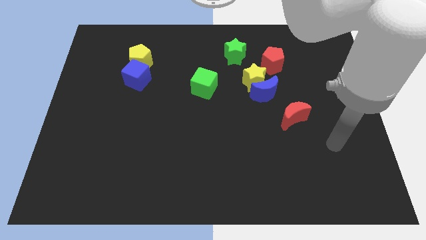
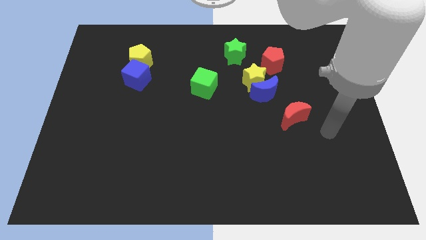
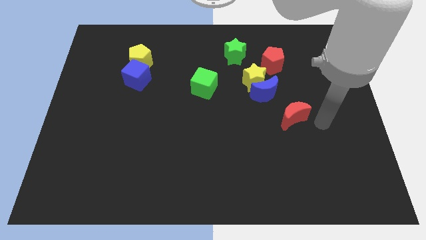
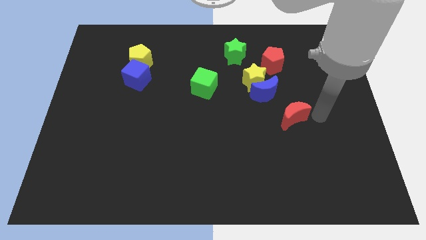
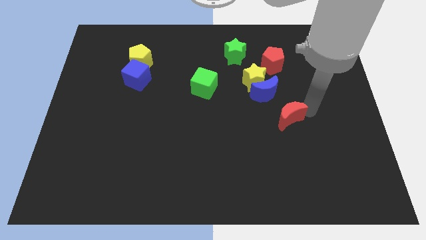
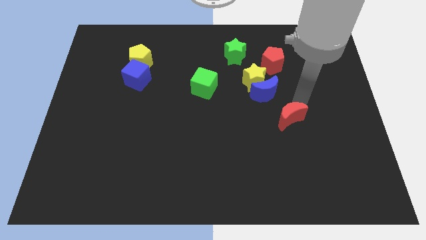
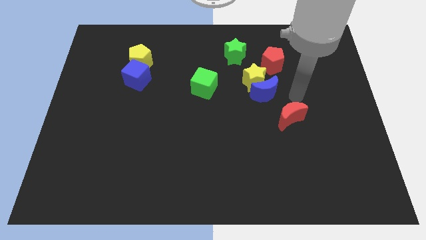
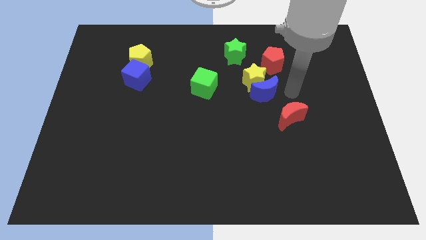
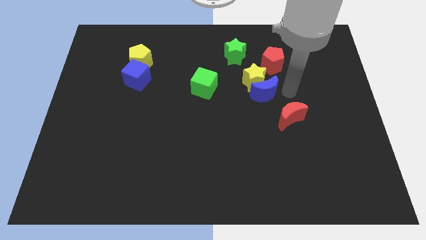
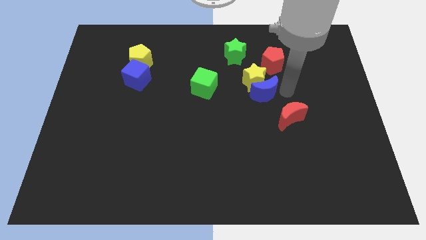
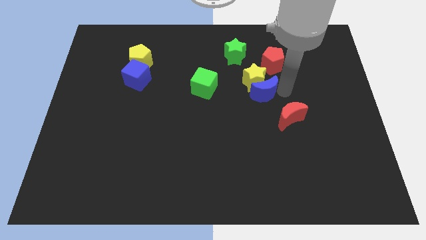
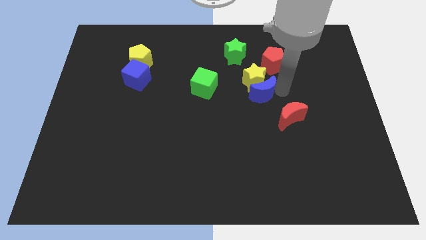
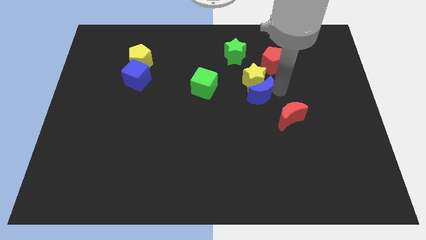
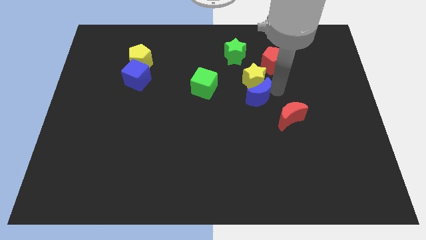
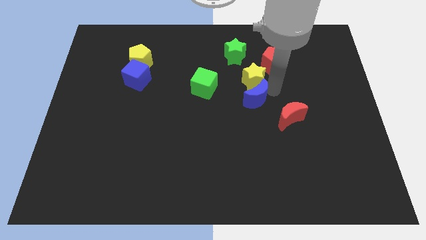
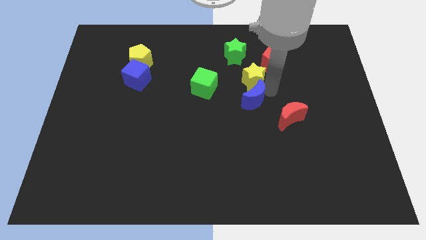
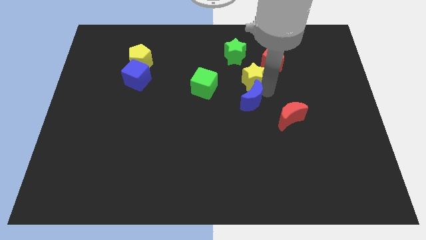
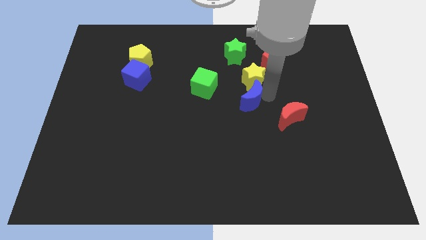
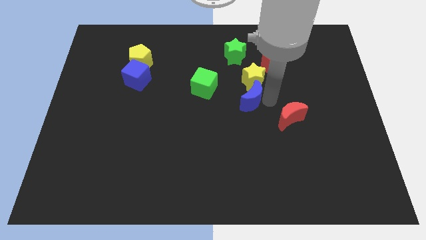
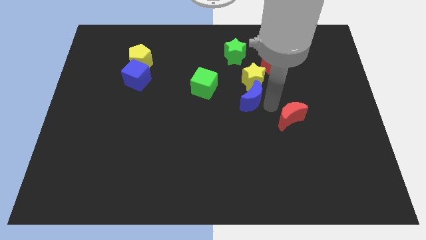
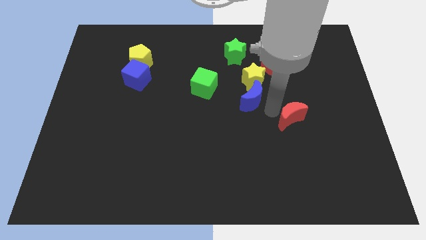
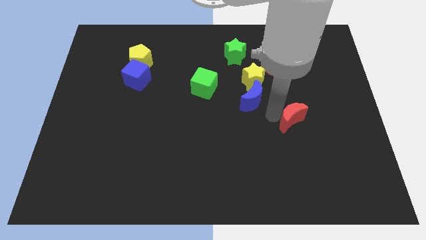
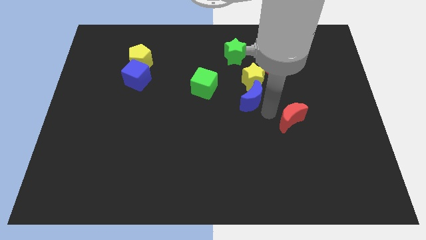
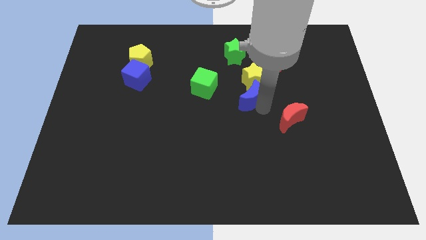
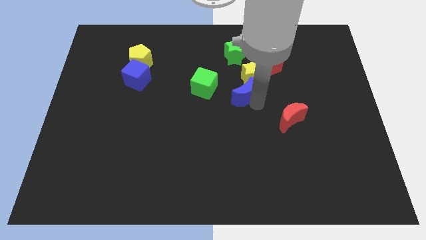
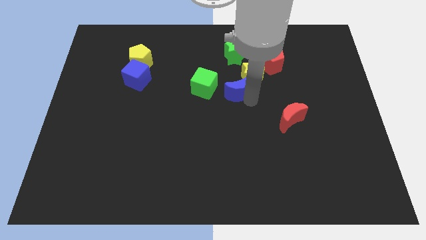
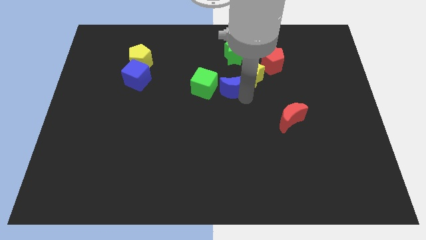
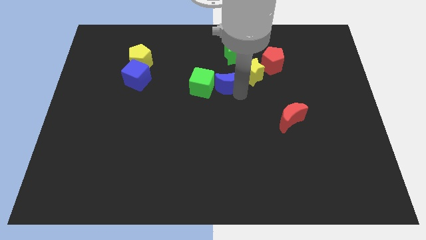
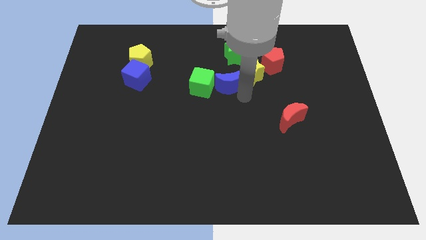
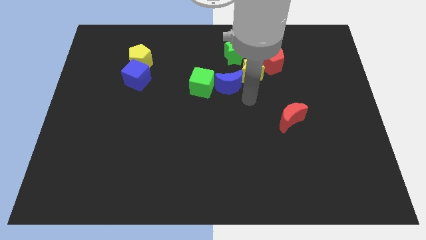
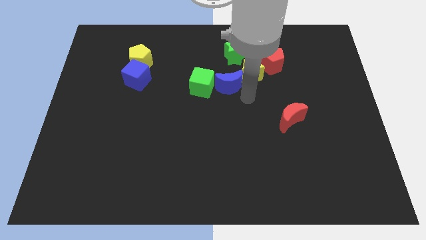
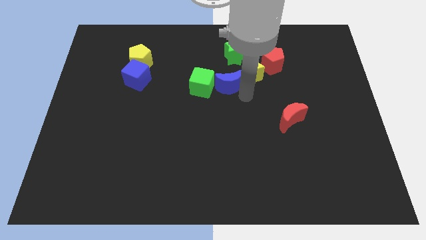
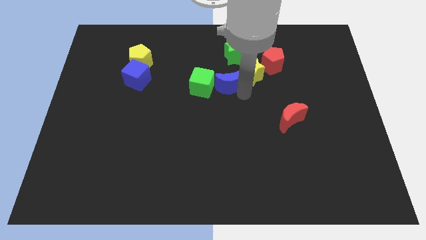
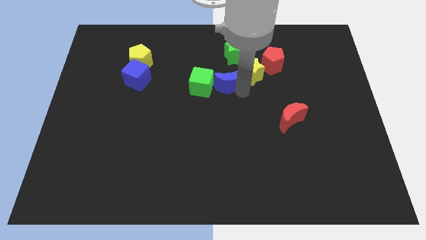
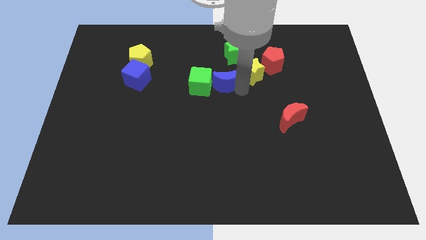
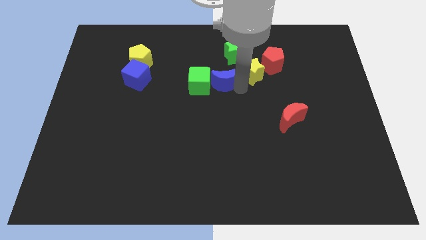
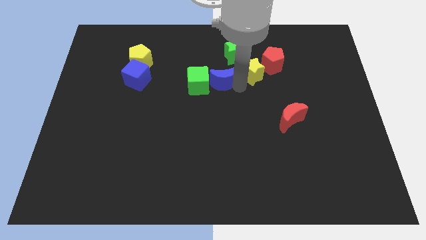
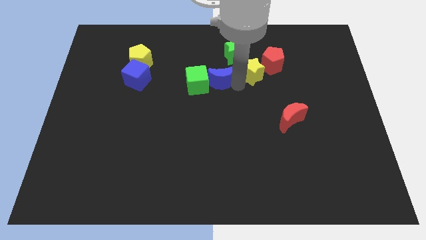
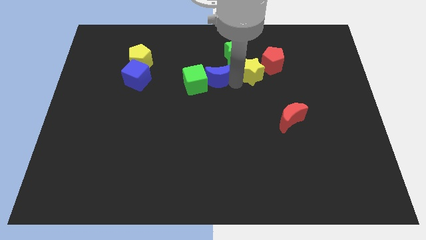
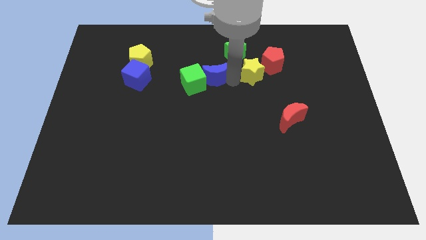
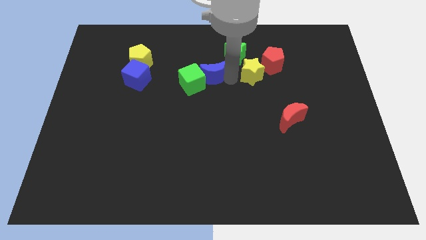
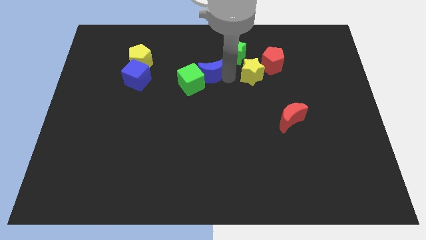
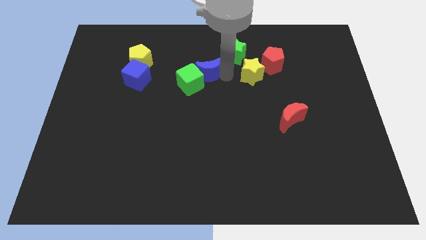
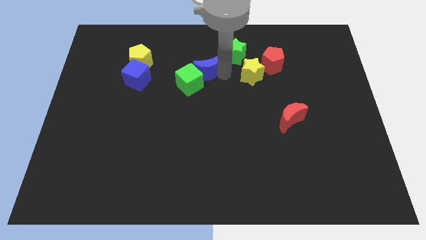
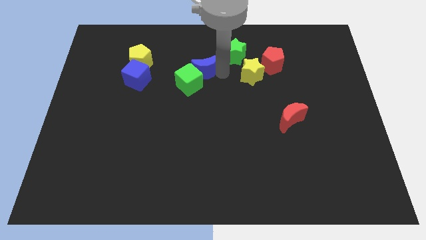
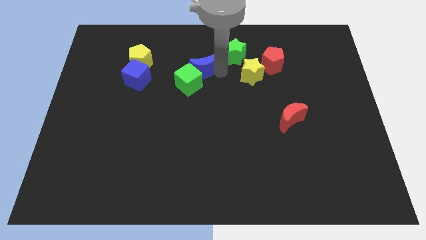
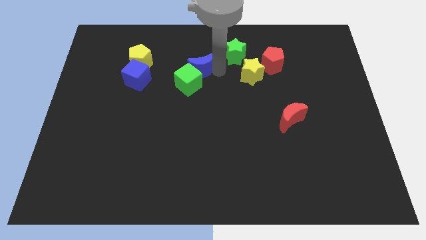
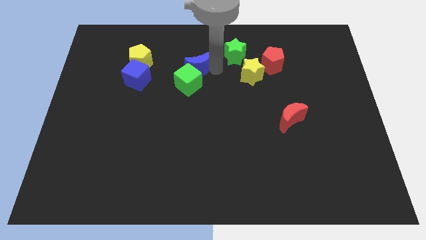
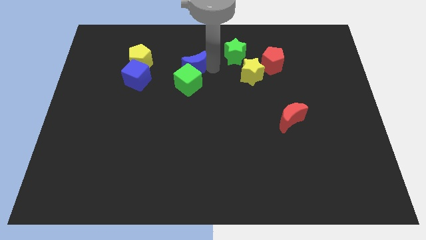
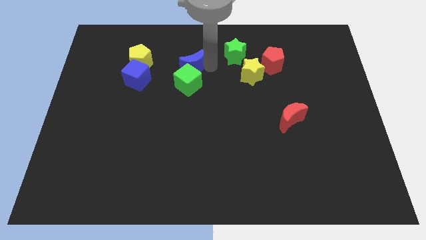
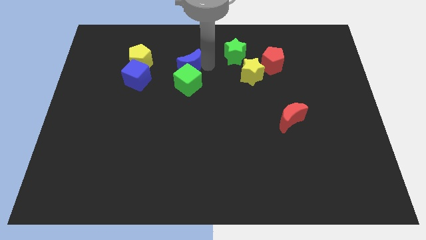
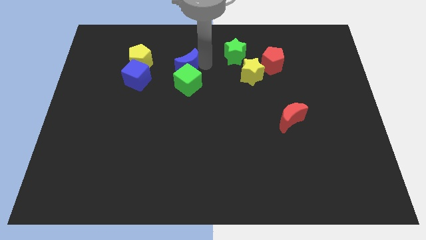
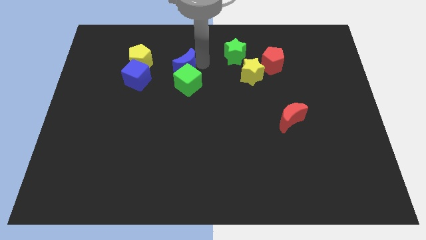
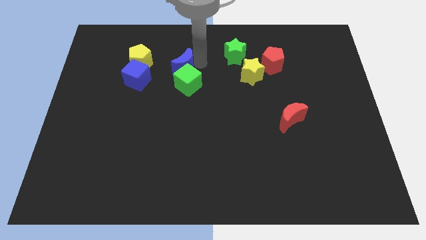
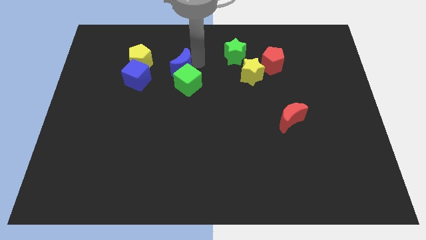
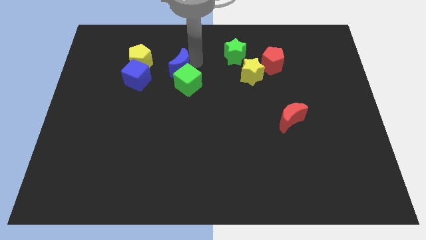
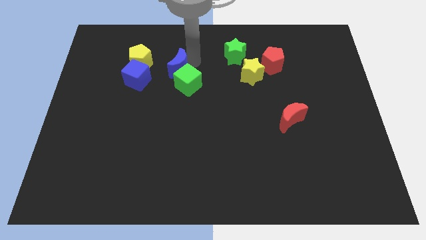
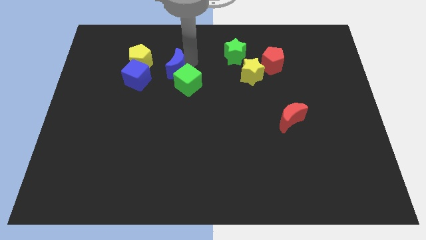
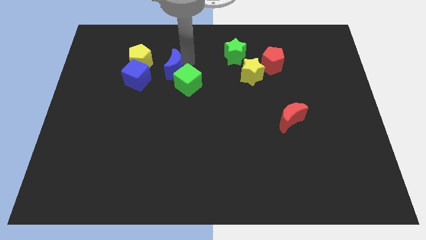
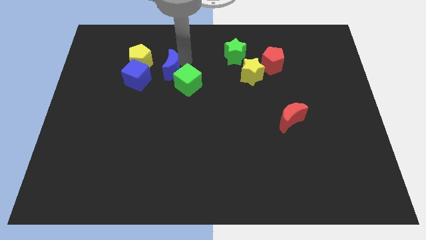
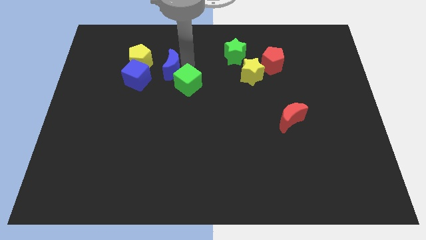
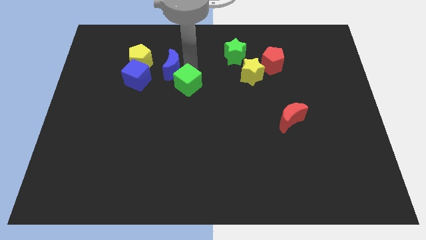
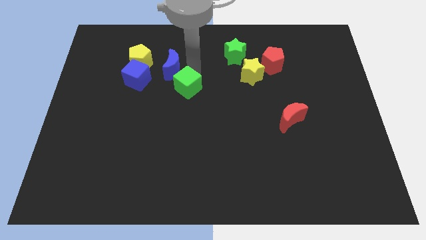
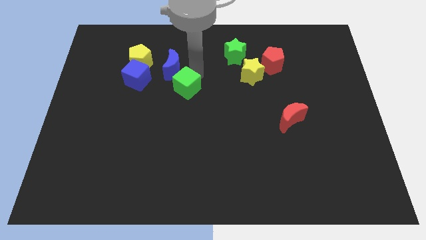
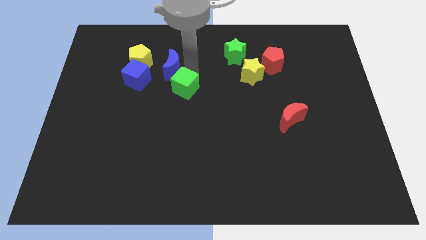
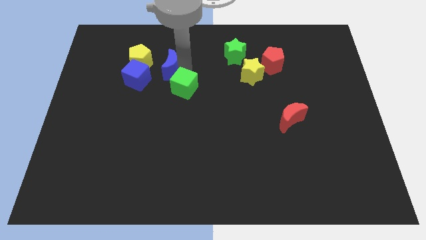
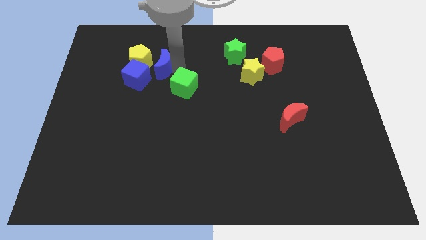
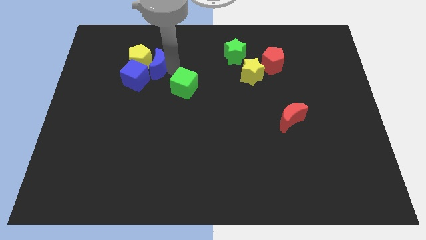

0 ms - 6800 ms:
move the blue moon close to the yellow pentagon

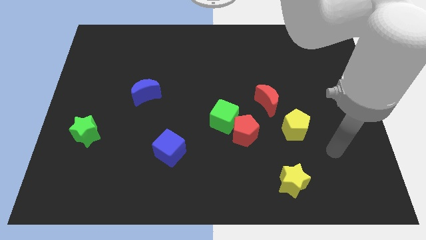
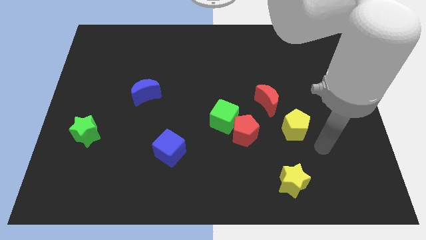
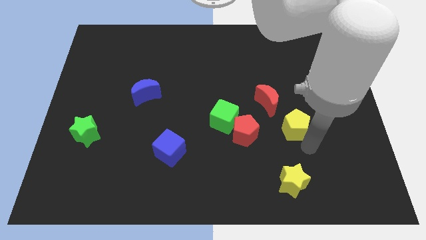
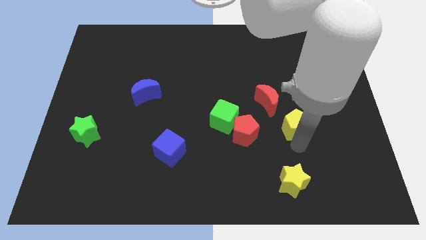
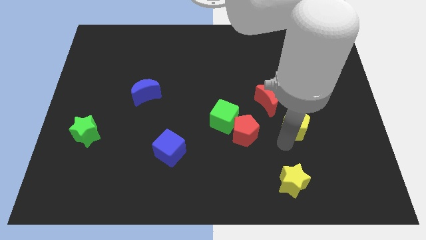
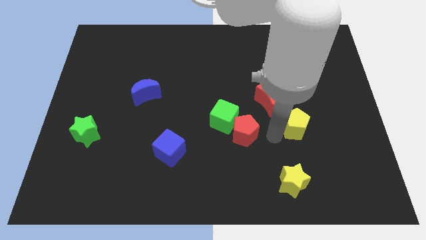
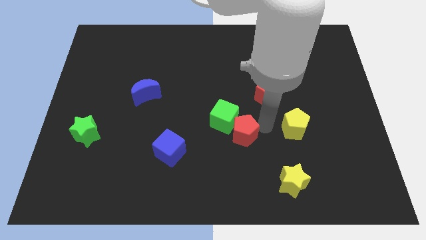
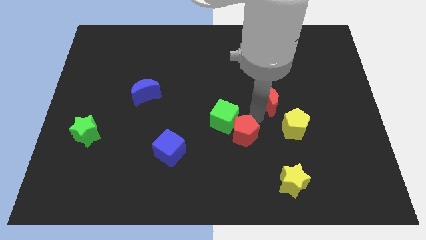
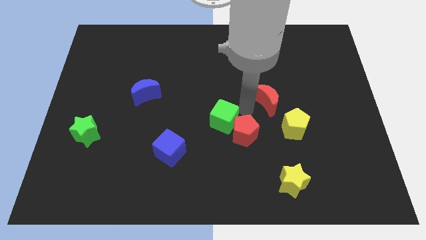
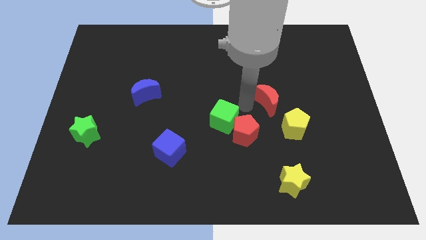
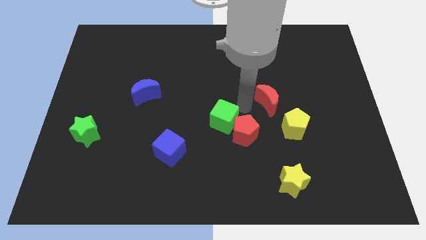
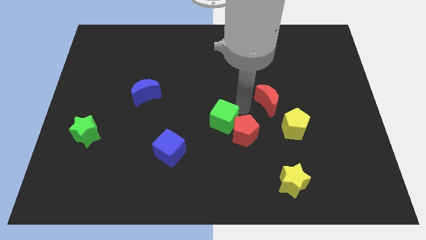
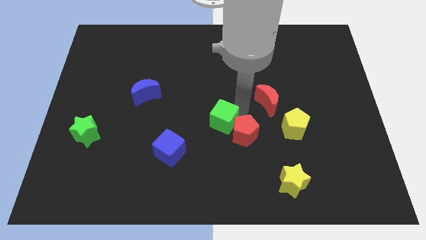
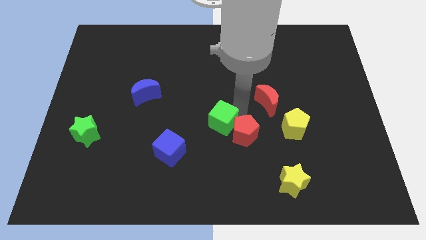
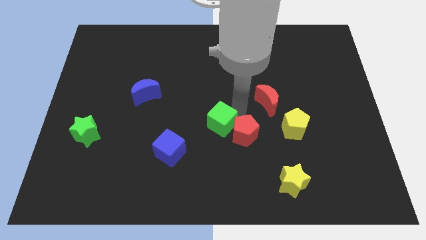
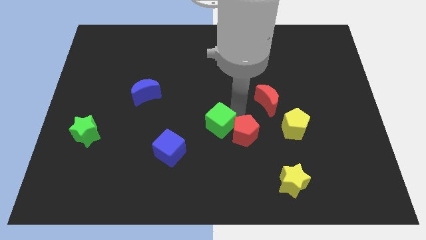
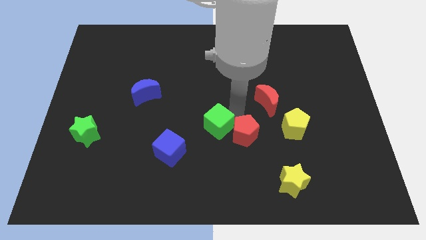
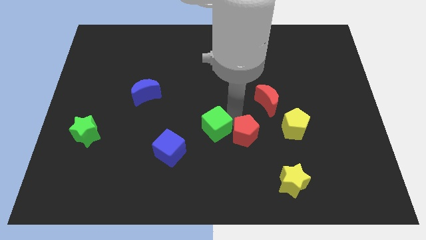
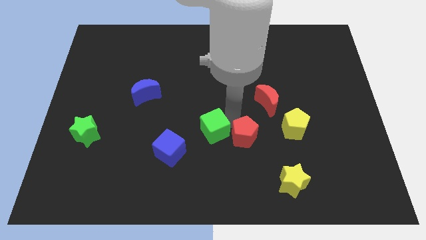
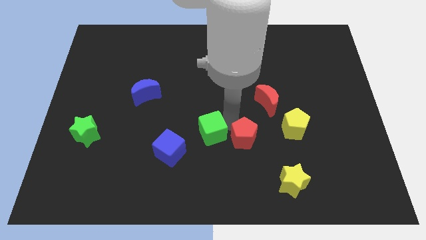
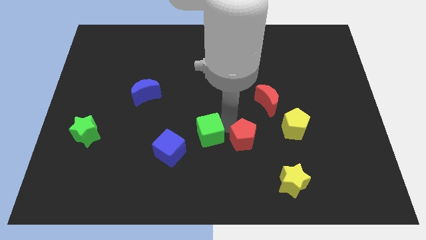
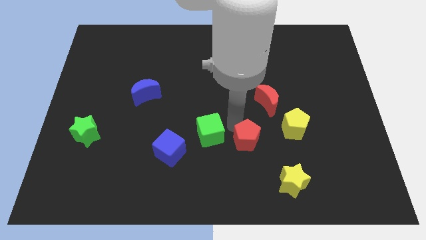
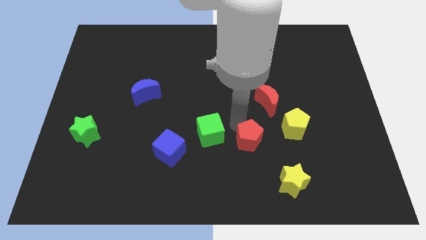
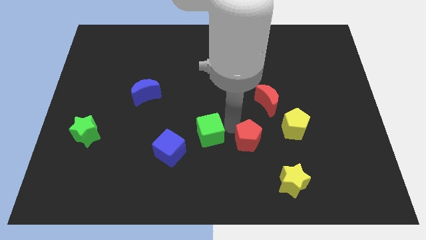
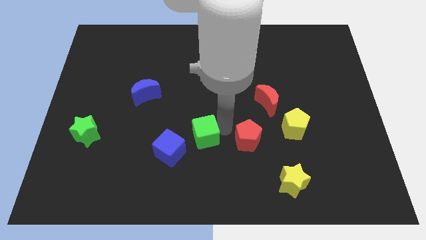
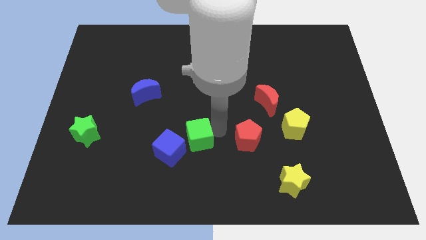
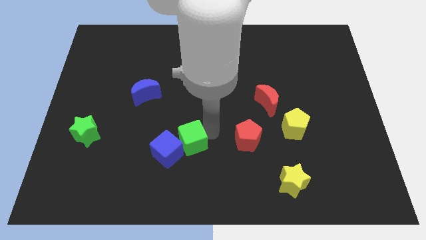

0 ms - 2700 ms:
put the green cube to the blue cube
